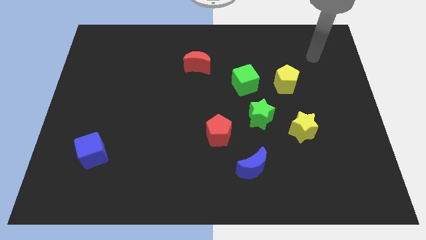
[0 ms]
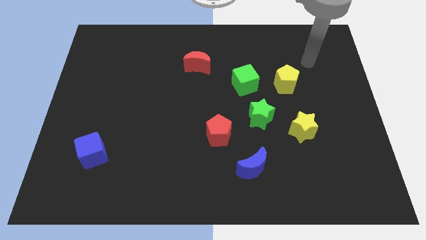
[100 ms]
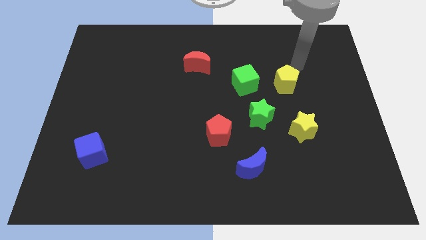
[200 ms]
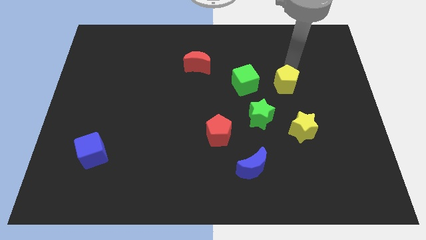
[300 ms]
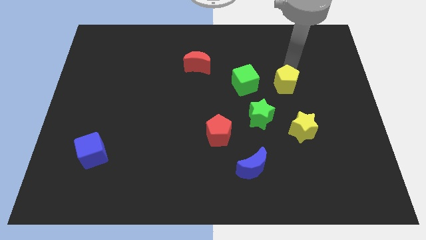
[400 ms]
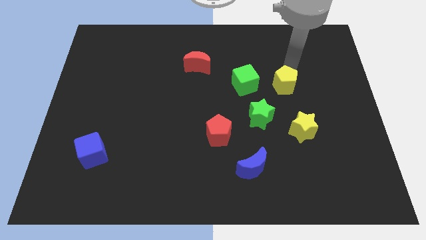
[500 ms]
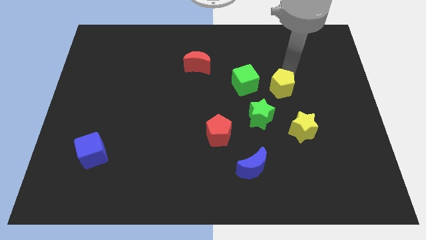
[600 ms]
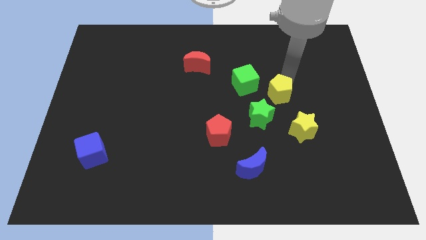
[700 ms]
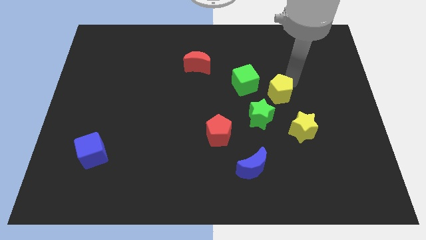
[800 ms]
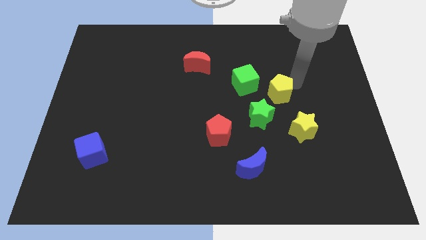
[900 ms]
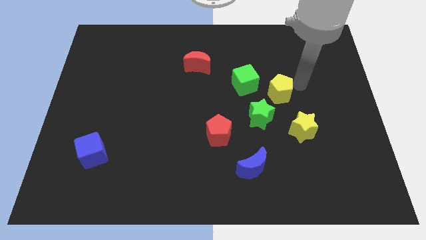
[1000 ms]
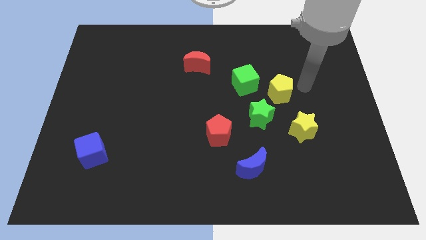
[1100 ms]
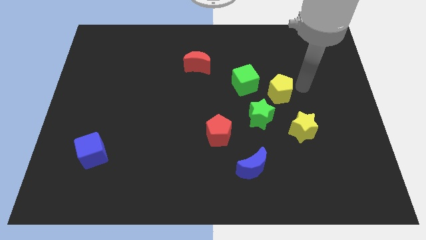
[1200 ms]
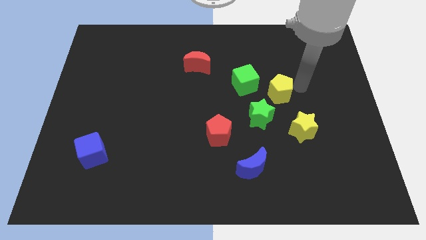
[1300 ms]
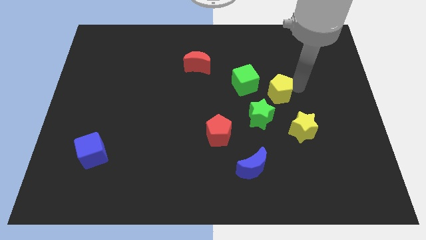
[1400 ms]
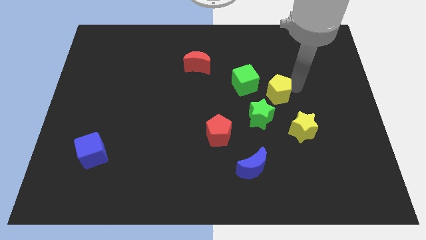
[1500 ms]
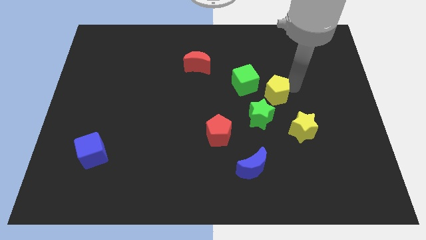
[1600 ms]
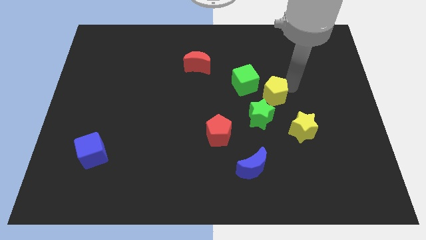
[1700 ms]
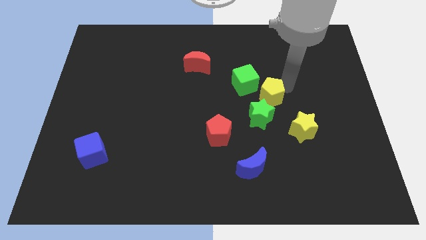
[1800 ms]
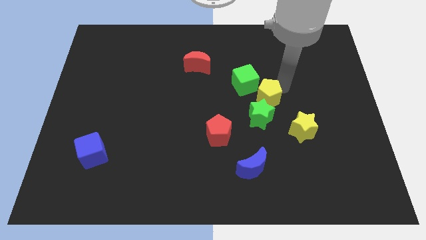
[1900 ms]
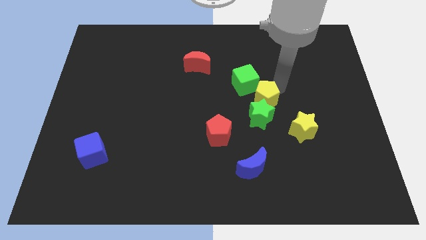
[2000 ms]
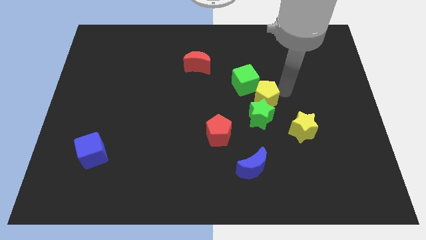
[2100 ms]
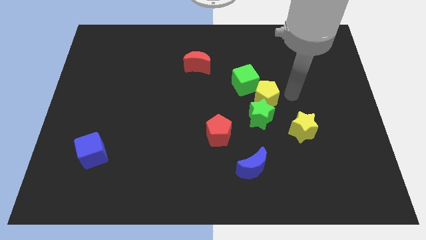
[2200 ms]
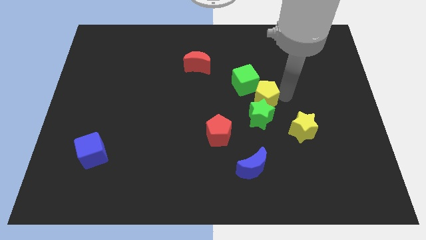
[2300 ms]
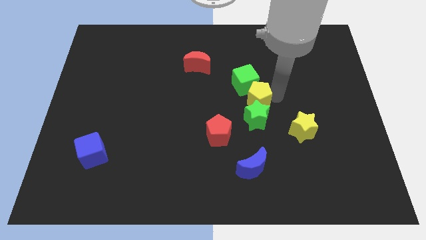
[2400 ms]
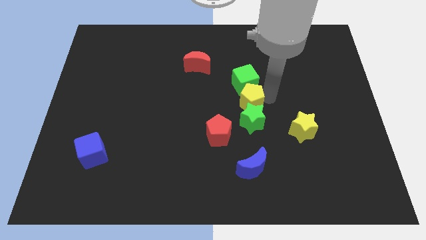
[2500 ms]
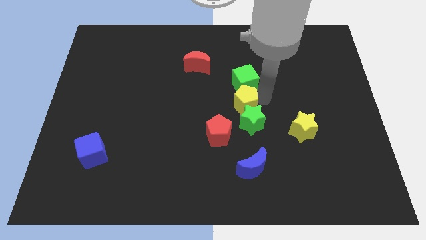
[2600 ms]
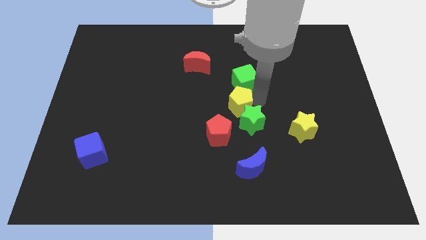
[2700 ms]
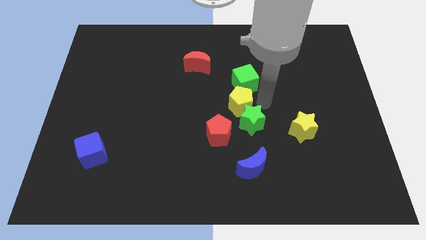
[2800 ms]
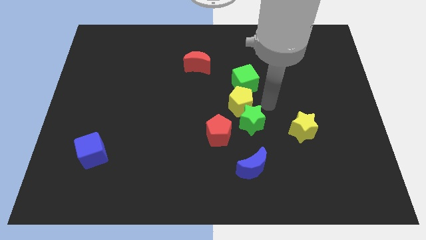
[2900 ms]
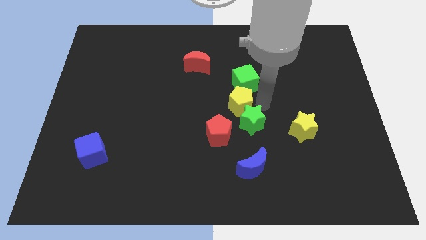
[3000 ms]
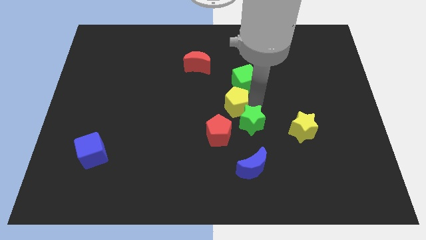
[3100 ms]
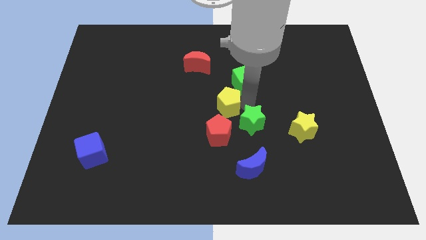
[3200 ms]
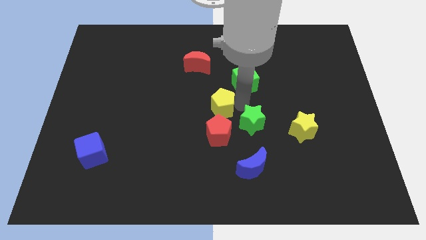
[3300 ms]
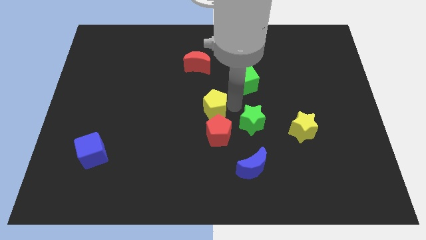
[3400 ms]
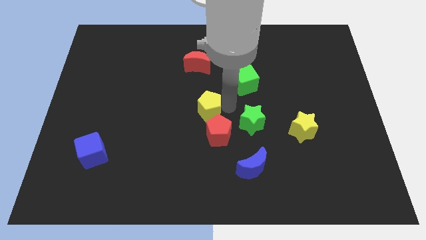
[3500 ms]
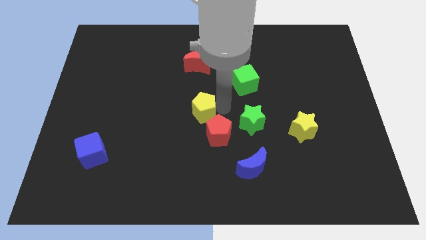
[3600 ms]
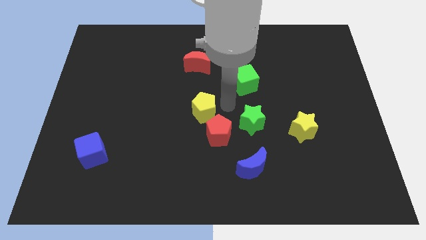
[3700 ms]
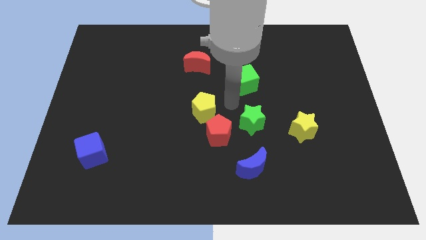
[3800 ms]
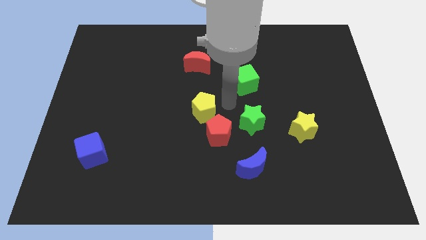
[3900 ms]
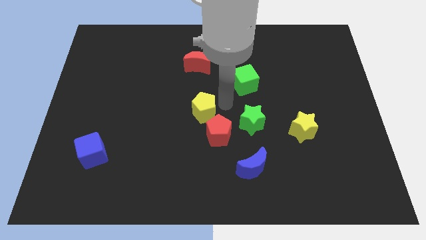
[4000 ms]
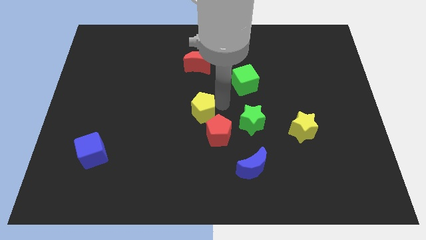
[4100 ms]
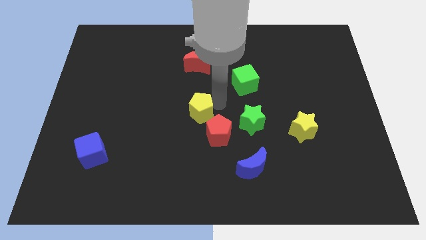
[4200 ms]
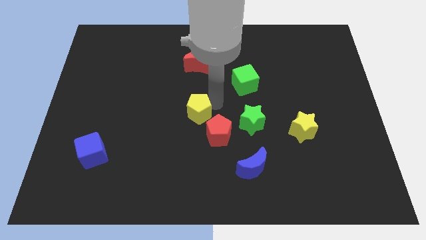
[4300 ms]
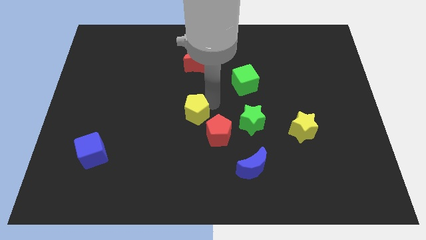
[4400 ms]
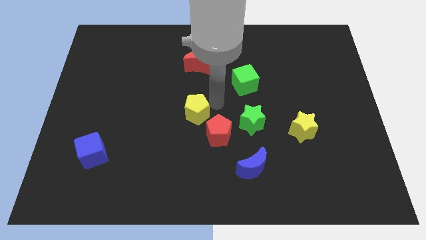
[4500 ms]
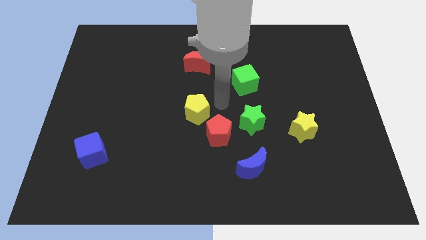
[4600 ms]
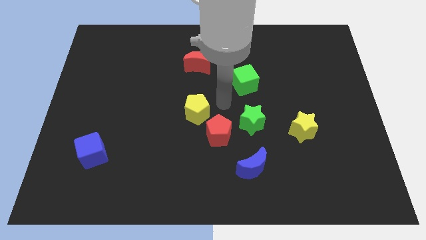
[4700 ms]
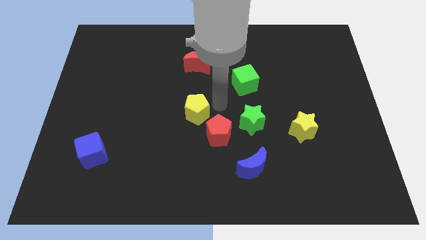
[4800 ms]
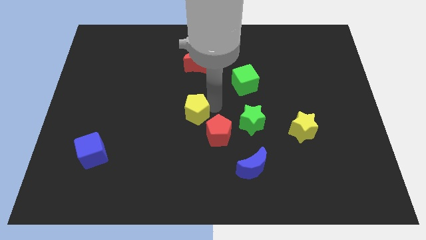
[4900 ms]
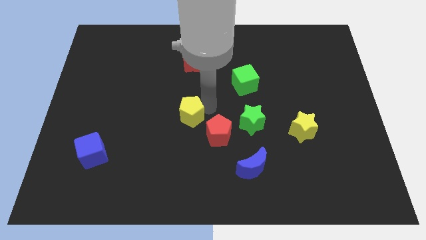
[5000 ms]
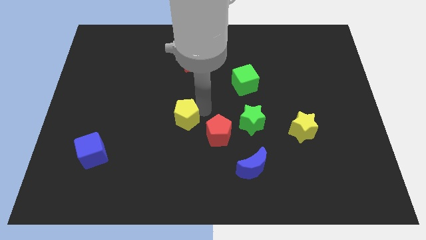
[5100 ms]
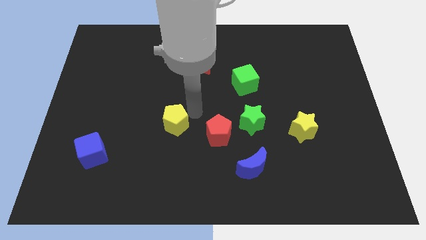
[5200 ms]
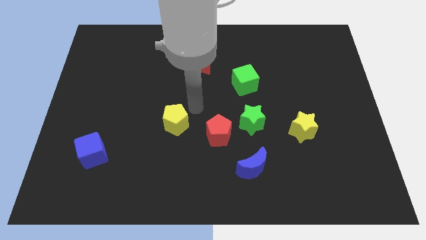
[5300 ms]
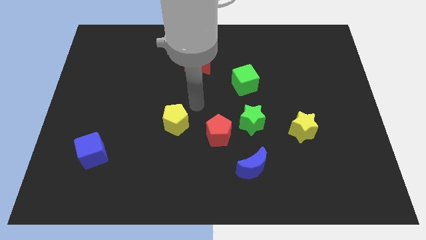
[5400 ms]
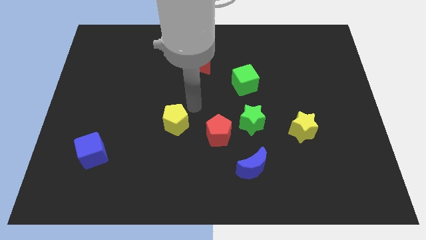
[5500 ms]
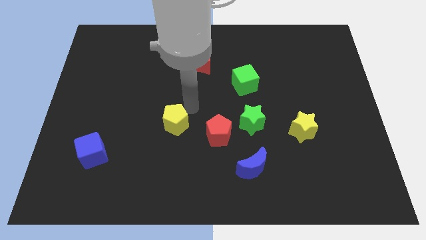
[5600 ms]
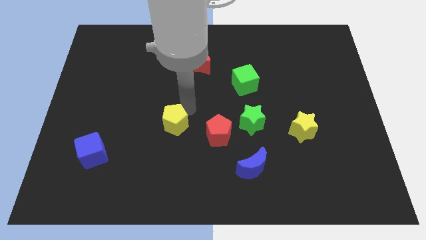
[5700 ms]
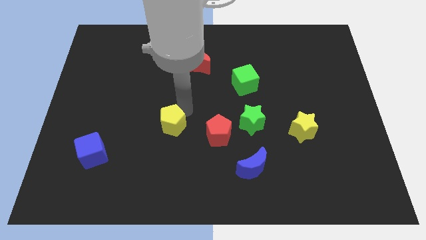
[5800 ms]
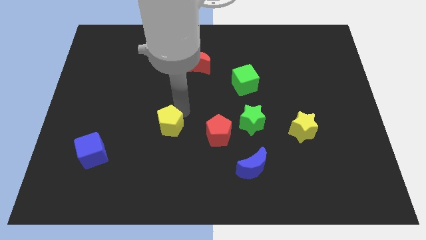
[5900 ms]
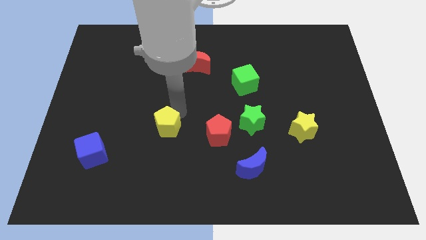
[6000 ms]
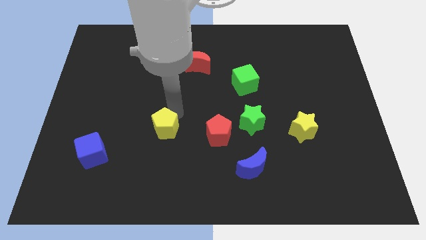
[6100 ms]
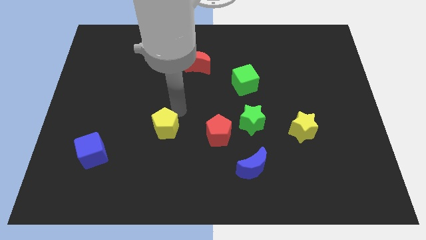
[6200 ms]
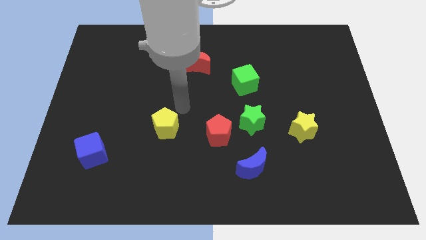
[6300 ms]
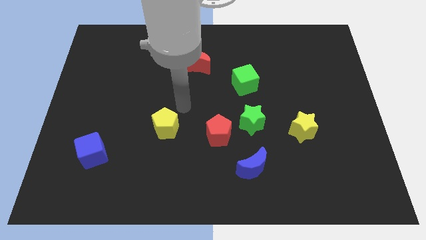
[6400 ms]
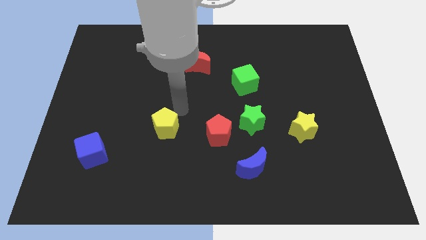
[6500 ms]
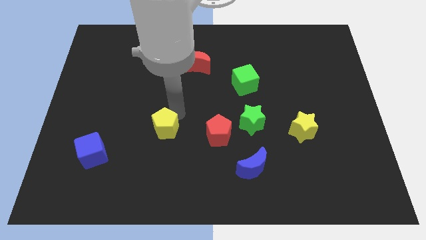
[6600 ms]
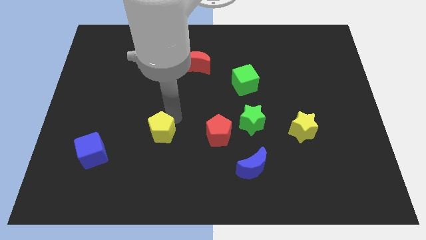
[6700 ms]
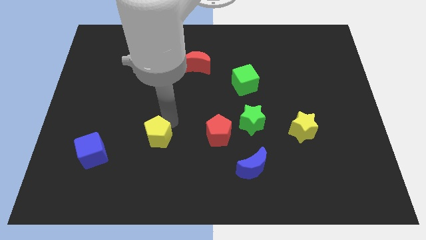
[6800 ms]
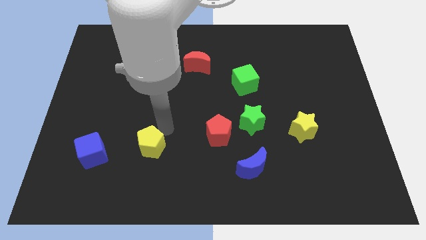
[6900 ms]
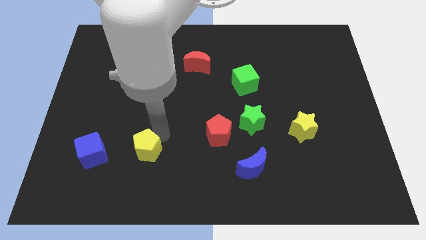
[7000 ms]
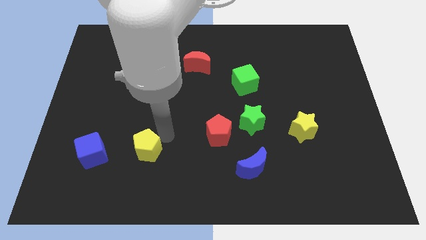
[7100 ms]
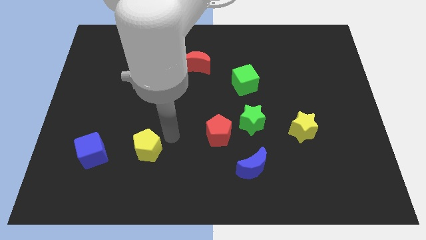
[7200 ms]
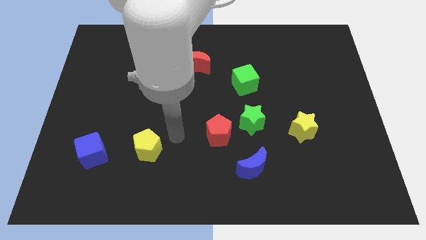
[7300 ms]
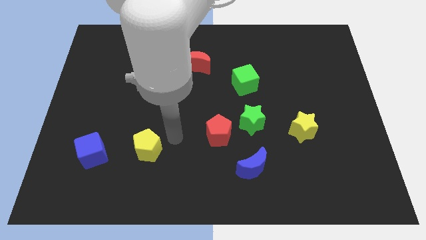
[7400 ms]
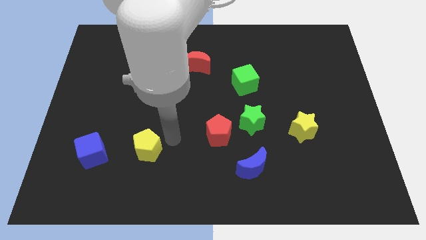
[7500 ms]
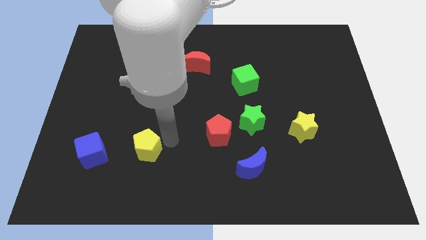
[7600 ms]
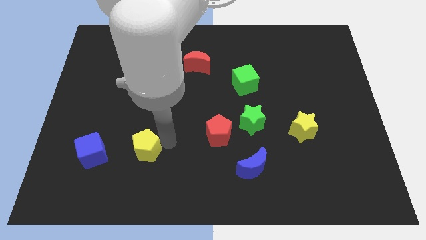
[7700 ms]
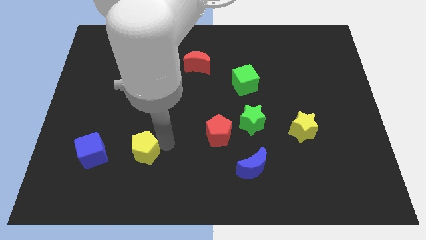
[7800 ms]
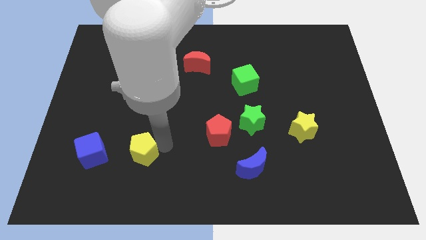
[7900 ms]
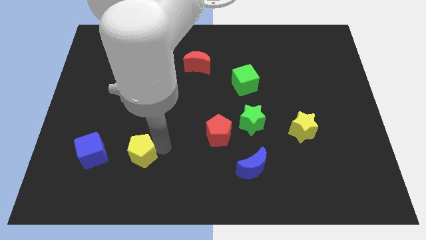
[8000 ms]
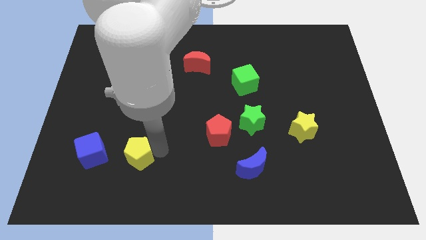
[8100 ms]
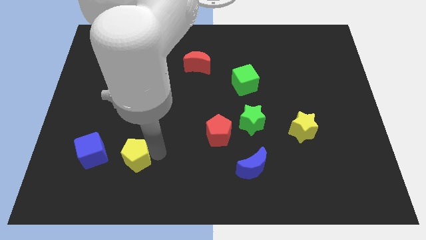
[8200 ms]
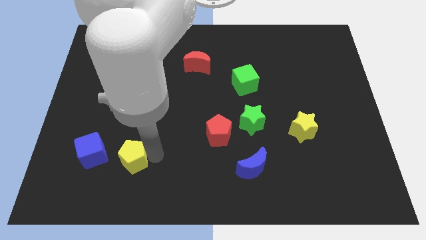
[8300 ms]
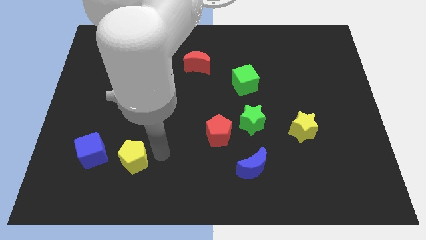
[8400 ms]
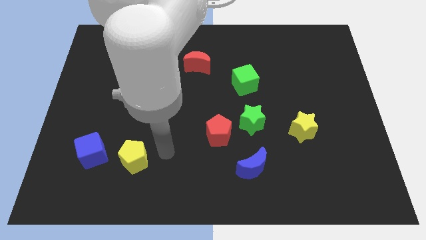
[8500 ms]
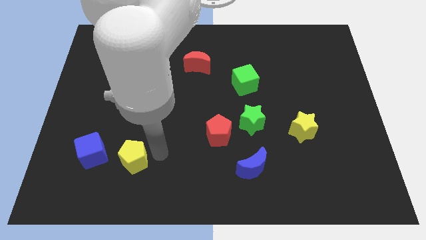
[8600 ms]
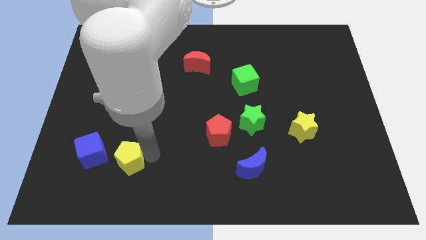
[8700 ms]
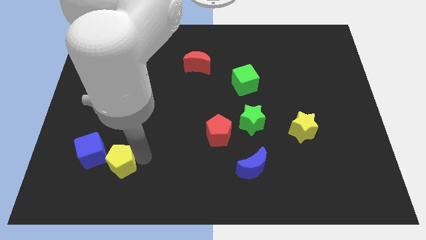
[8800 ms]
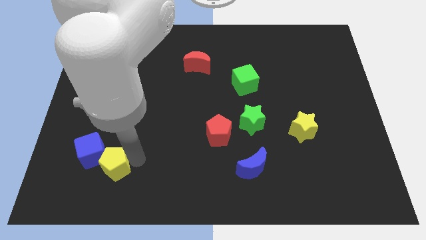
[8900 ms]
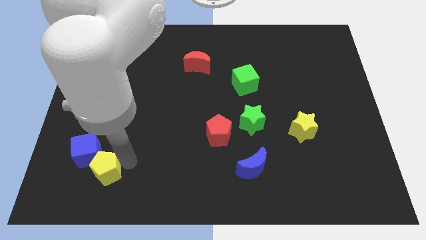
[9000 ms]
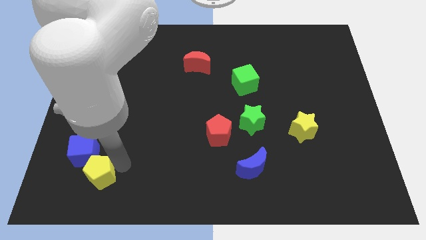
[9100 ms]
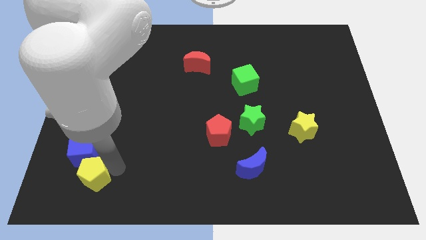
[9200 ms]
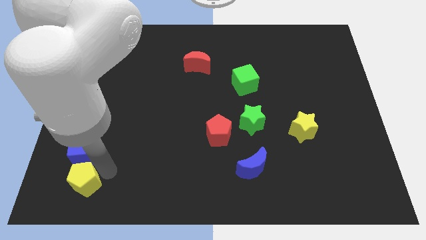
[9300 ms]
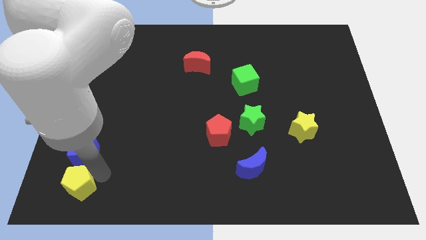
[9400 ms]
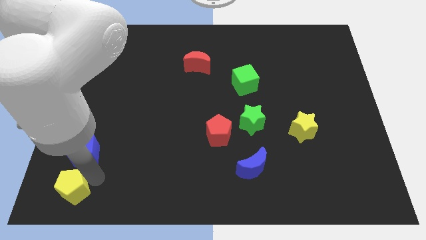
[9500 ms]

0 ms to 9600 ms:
slide the yellow pentagon to the bottom left
